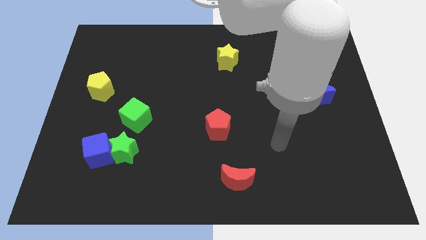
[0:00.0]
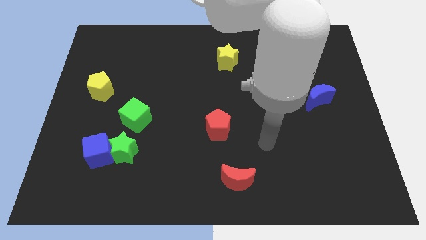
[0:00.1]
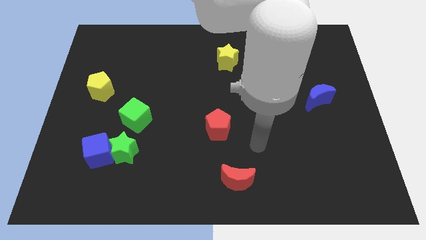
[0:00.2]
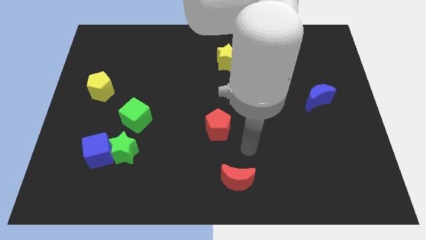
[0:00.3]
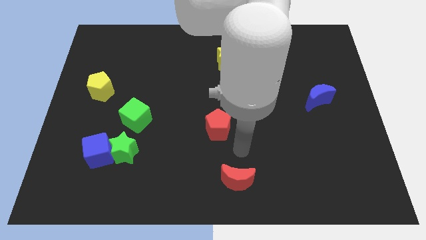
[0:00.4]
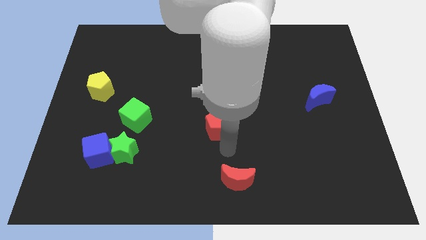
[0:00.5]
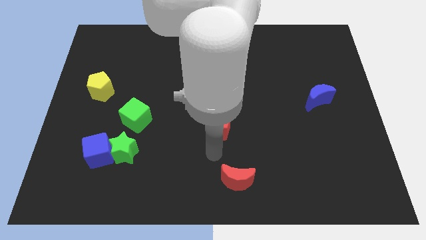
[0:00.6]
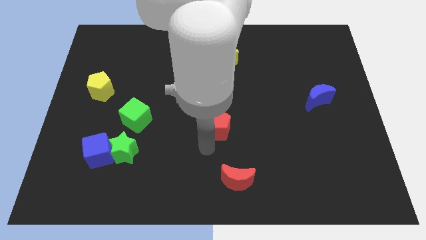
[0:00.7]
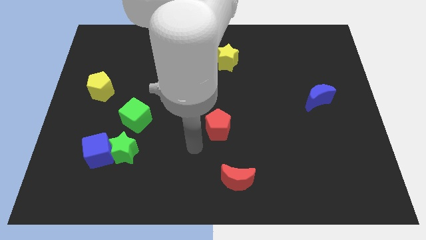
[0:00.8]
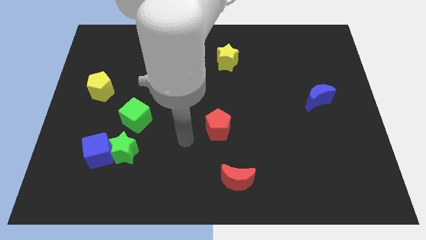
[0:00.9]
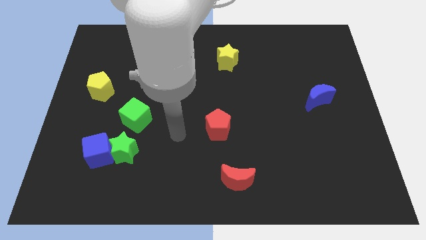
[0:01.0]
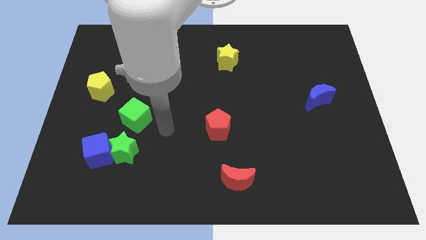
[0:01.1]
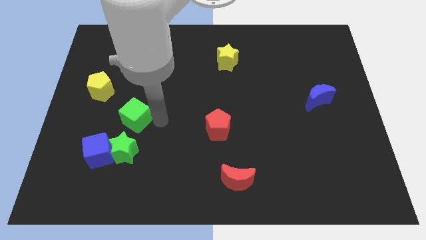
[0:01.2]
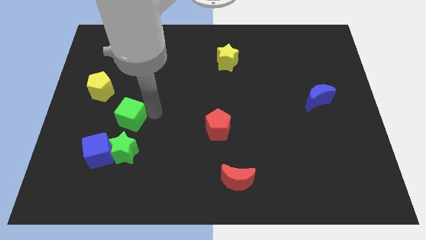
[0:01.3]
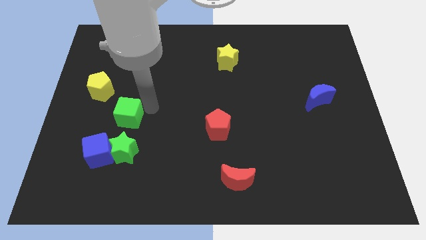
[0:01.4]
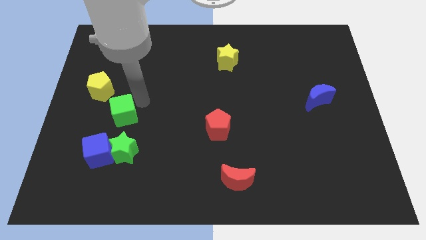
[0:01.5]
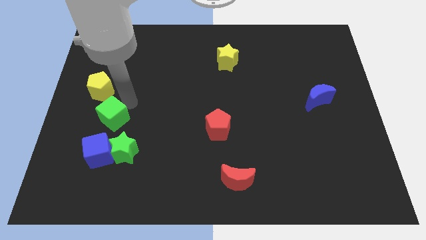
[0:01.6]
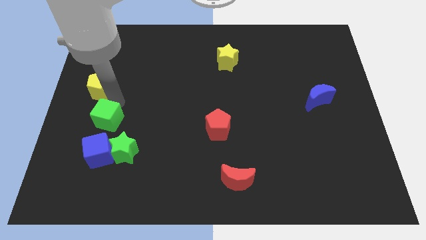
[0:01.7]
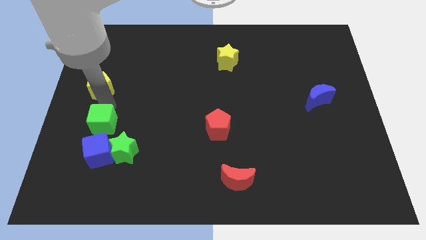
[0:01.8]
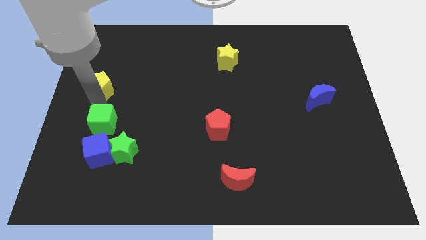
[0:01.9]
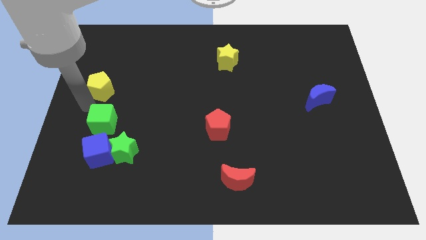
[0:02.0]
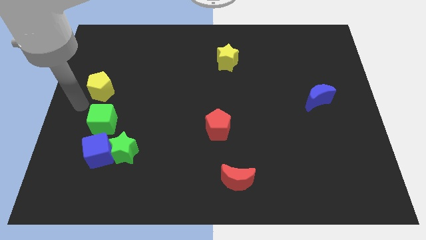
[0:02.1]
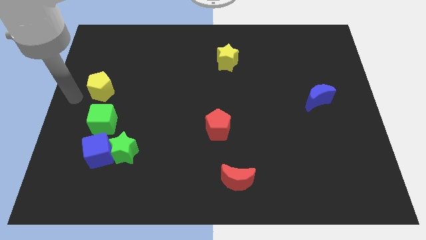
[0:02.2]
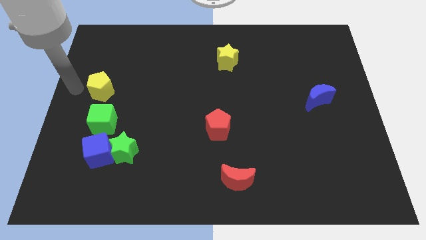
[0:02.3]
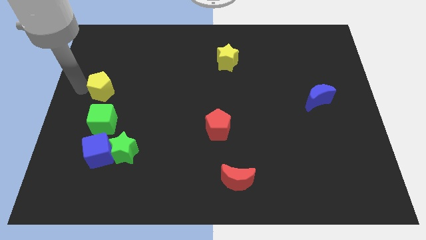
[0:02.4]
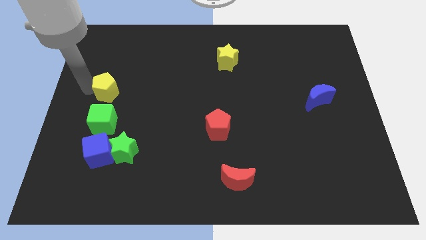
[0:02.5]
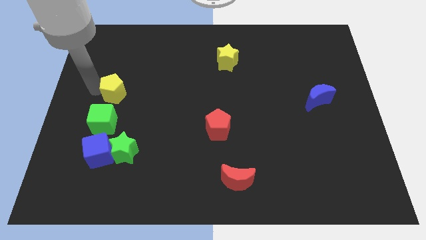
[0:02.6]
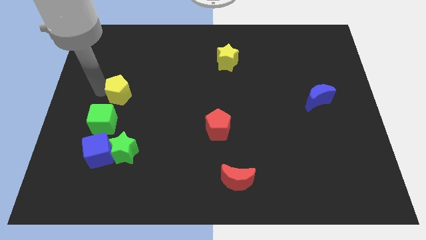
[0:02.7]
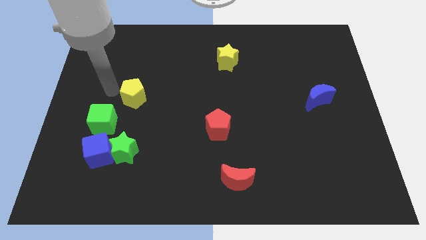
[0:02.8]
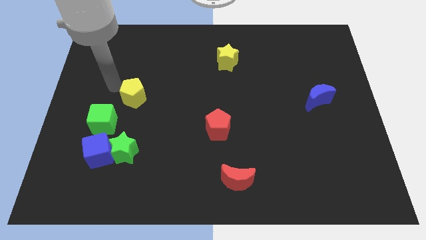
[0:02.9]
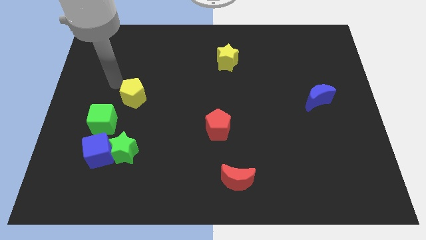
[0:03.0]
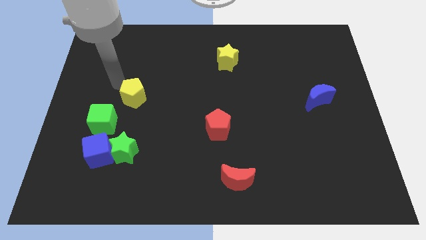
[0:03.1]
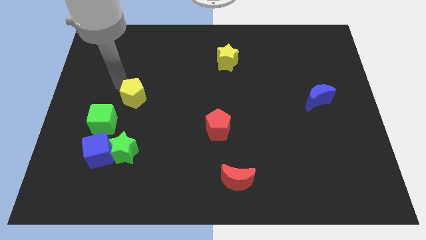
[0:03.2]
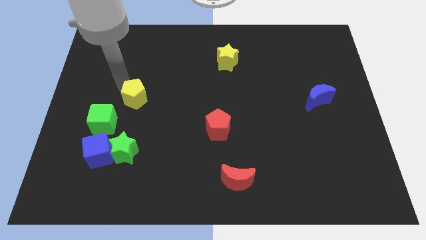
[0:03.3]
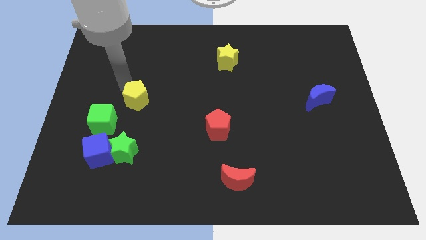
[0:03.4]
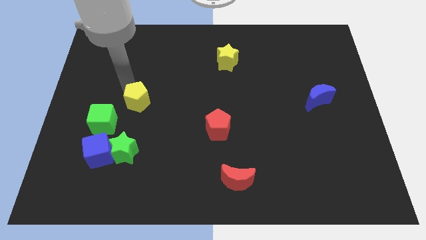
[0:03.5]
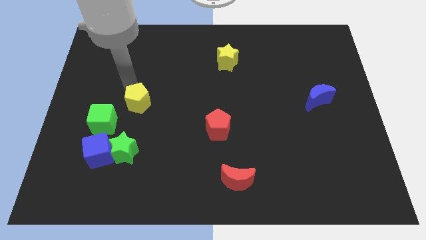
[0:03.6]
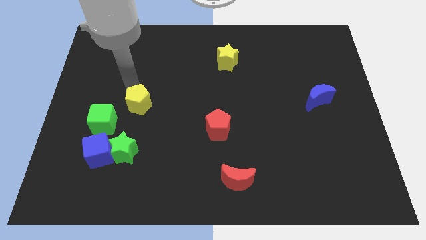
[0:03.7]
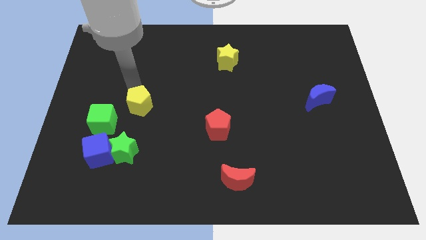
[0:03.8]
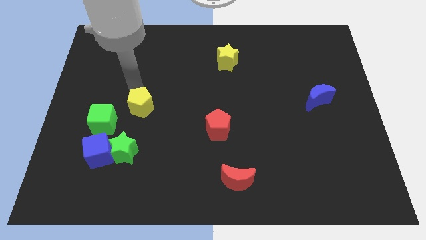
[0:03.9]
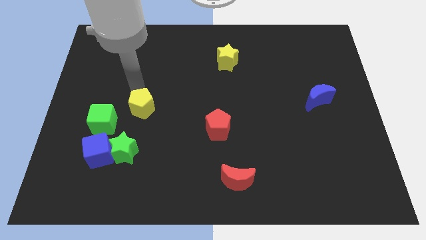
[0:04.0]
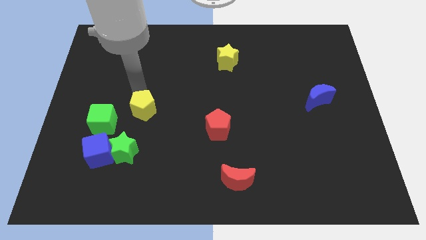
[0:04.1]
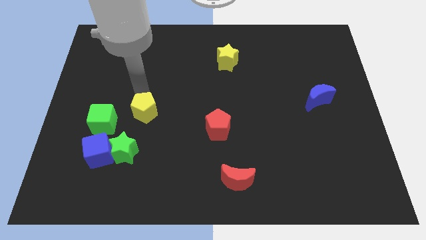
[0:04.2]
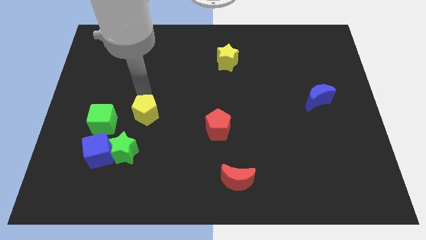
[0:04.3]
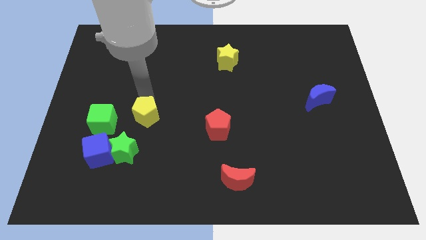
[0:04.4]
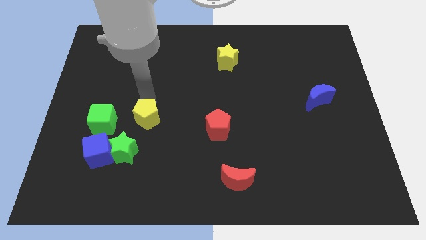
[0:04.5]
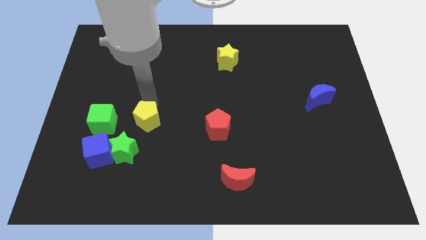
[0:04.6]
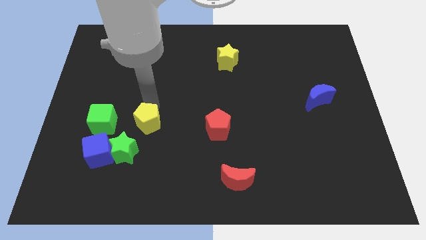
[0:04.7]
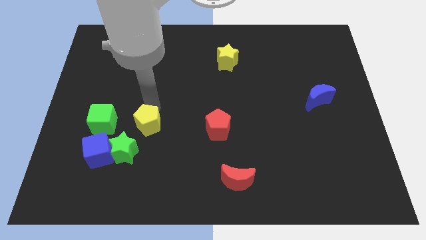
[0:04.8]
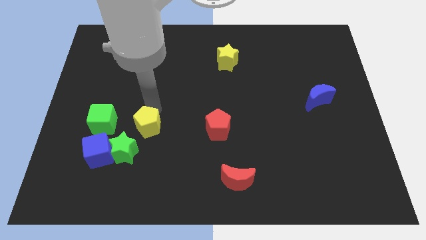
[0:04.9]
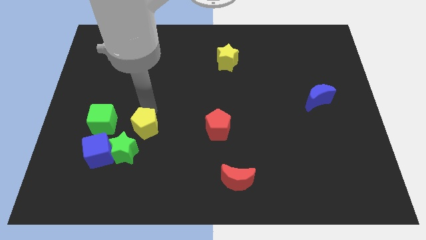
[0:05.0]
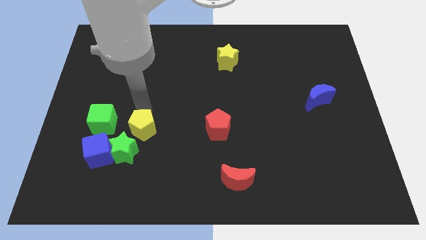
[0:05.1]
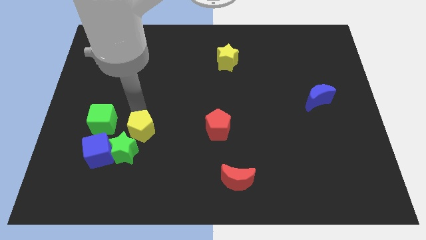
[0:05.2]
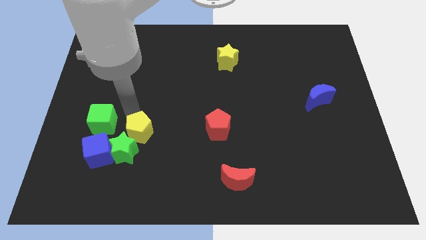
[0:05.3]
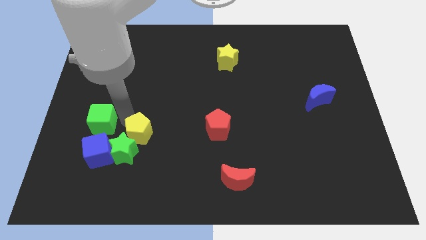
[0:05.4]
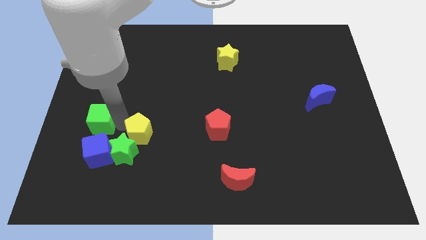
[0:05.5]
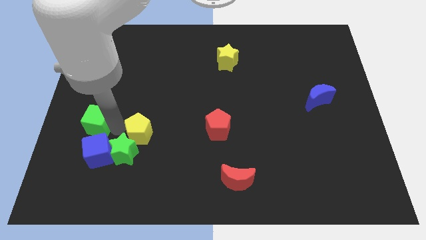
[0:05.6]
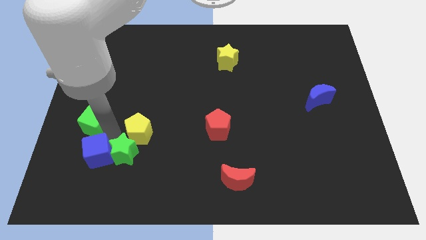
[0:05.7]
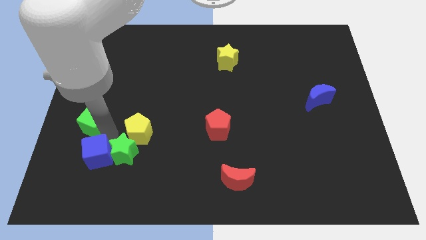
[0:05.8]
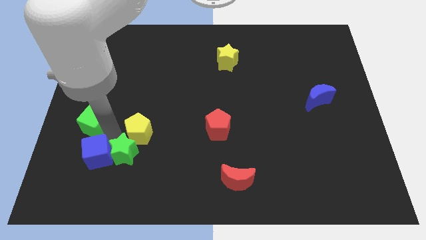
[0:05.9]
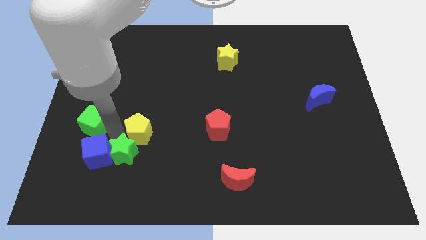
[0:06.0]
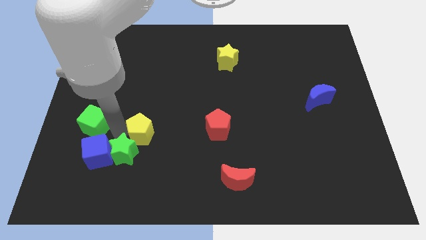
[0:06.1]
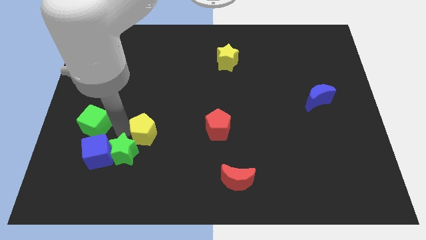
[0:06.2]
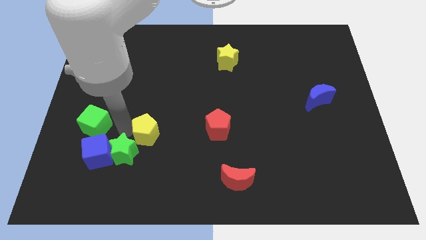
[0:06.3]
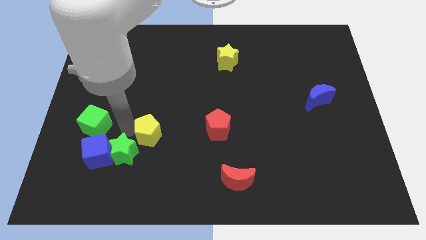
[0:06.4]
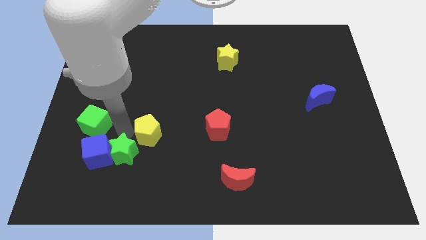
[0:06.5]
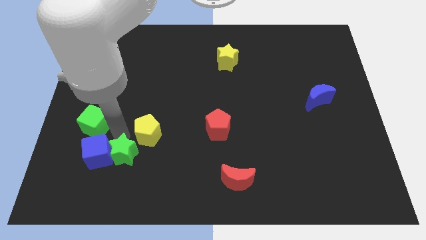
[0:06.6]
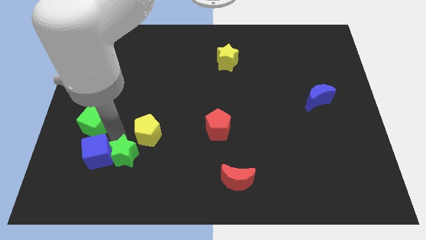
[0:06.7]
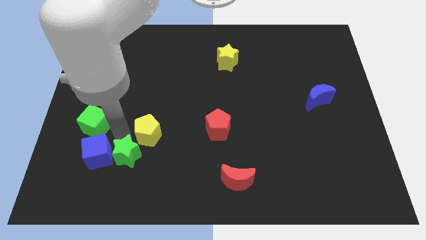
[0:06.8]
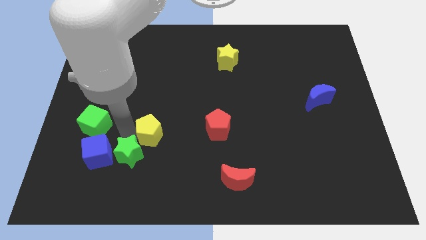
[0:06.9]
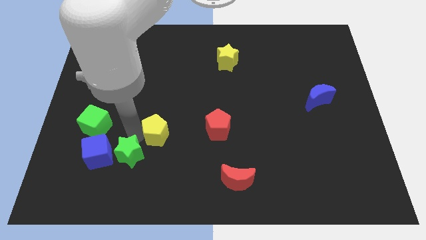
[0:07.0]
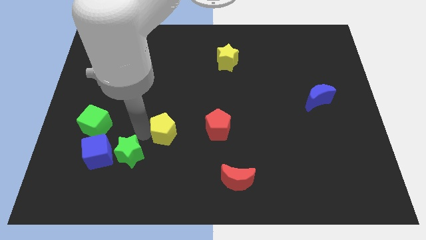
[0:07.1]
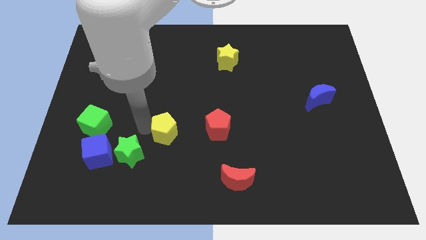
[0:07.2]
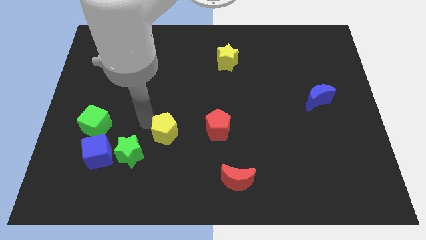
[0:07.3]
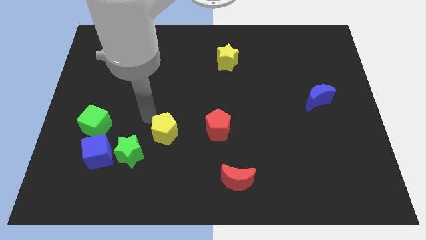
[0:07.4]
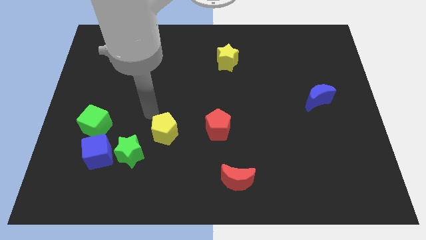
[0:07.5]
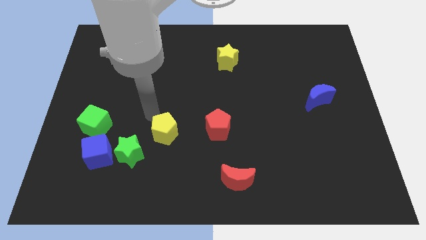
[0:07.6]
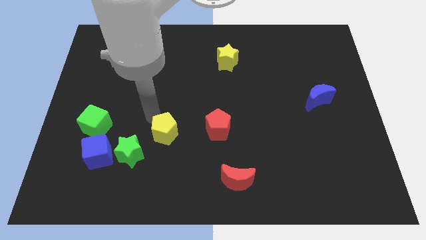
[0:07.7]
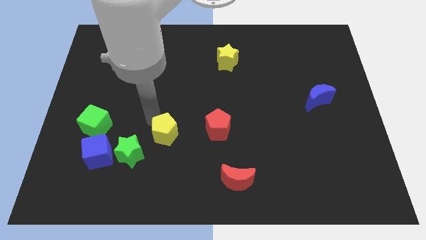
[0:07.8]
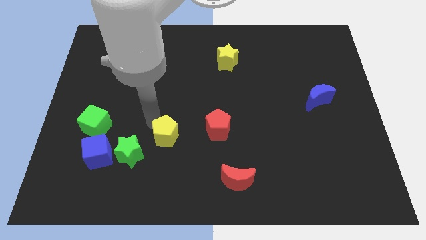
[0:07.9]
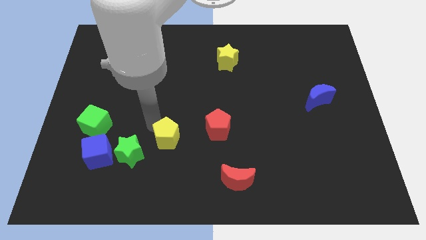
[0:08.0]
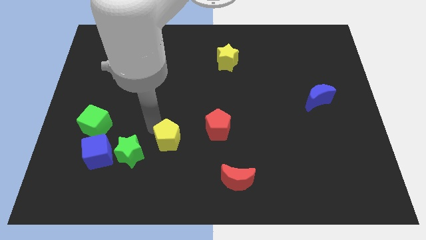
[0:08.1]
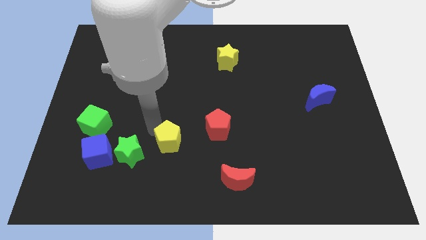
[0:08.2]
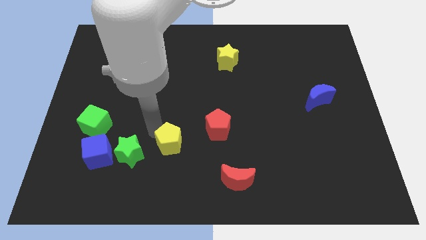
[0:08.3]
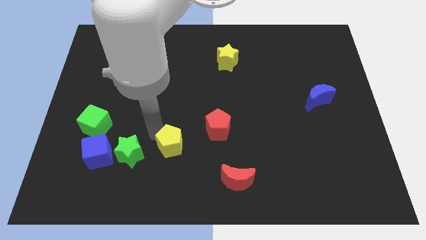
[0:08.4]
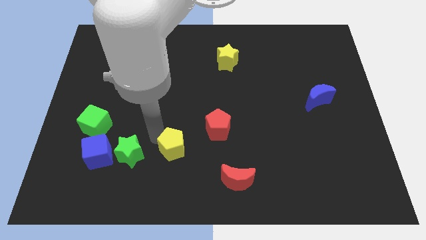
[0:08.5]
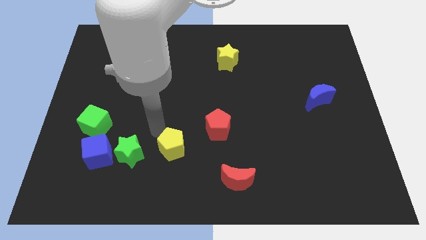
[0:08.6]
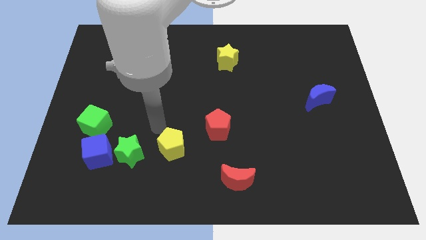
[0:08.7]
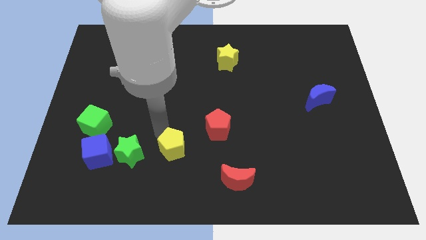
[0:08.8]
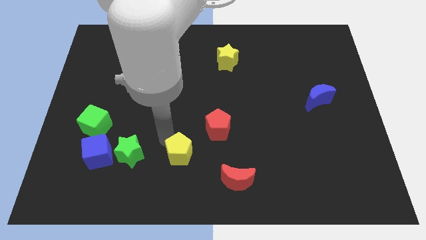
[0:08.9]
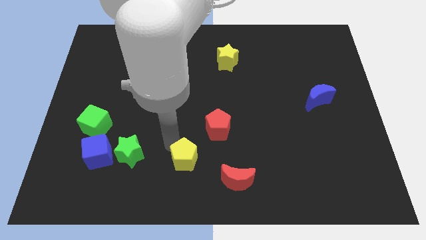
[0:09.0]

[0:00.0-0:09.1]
slide the yellow pentagon to the bottom side
